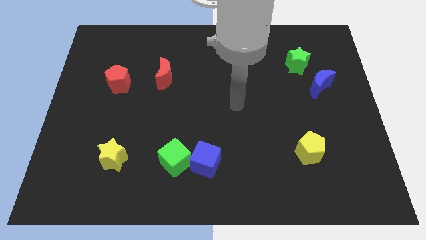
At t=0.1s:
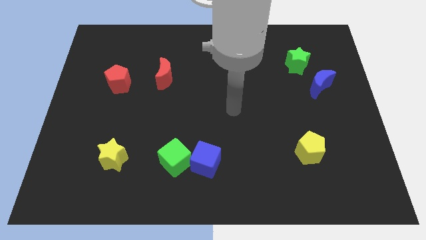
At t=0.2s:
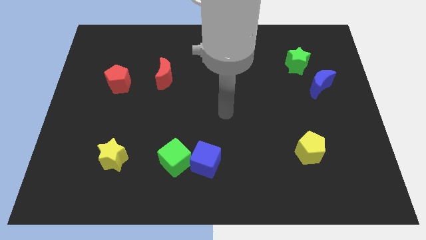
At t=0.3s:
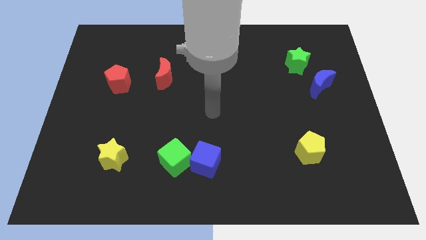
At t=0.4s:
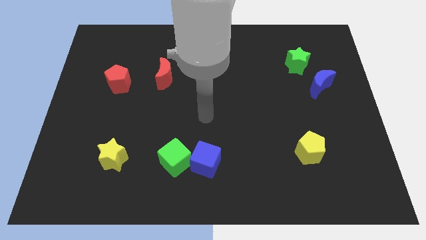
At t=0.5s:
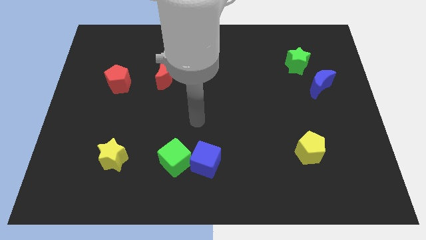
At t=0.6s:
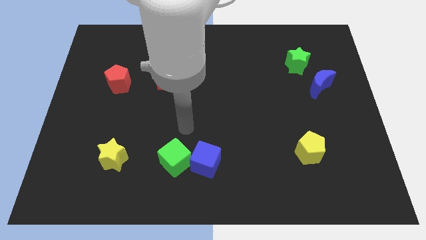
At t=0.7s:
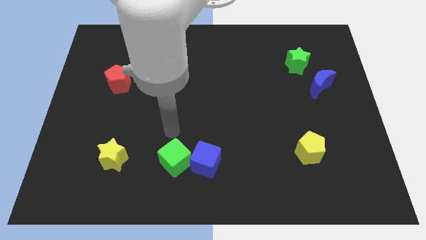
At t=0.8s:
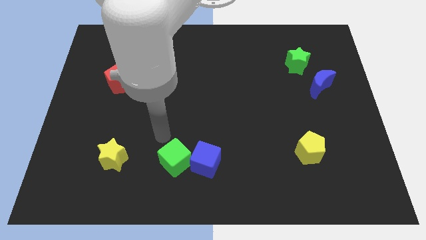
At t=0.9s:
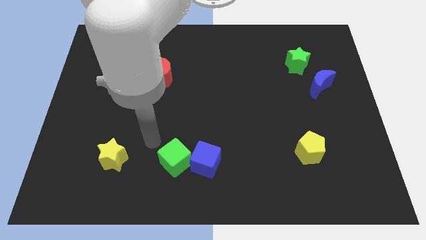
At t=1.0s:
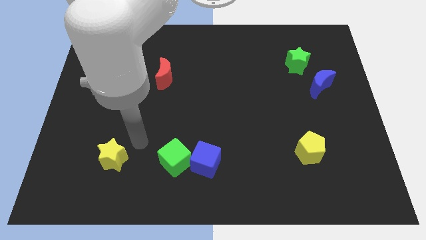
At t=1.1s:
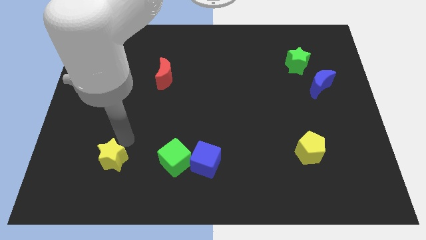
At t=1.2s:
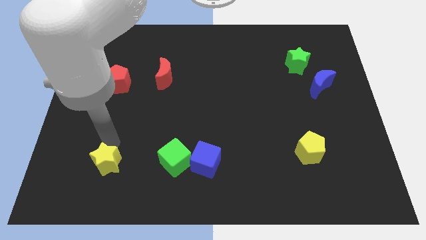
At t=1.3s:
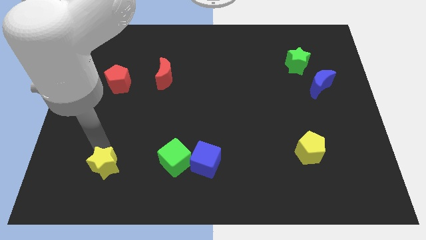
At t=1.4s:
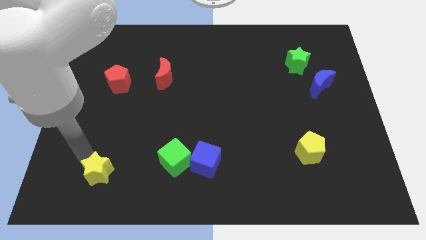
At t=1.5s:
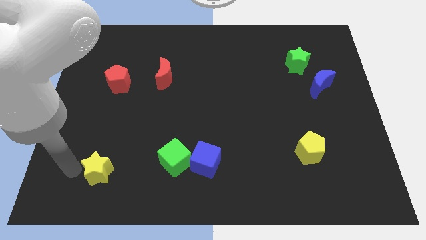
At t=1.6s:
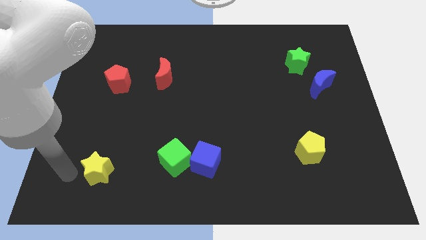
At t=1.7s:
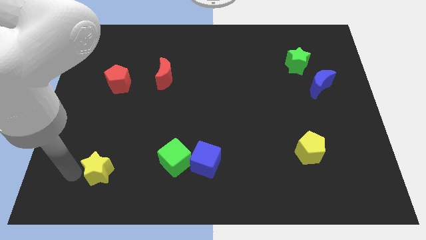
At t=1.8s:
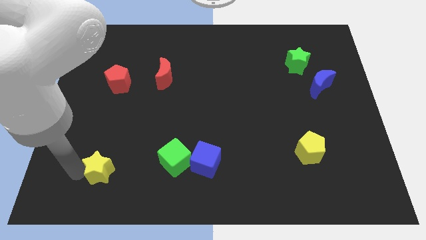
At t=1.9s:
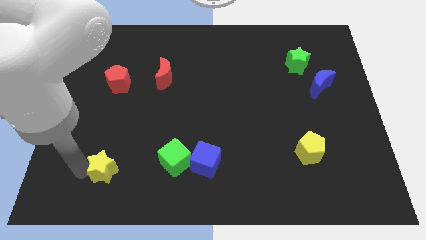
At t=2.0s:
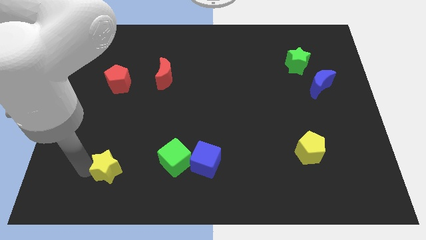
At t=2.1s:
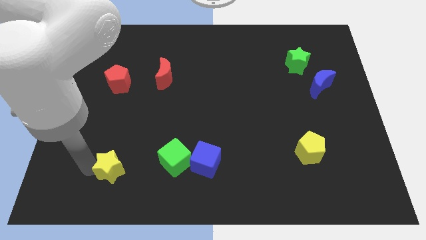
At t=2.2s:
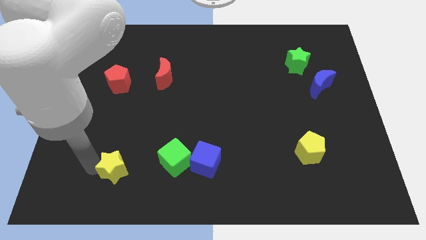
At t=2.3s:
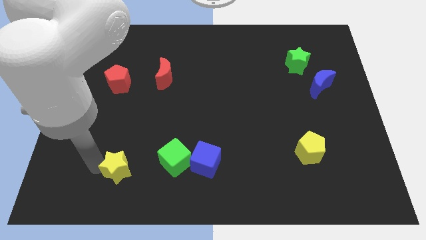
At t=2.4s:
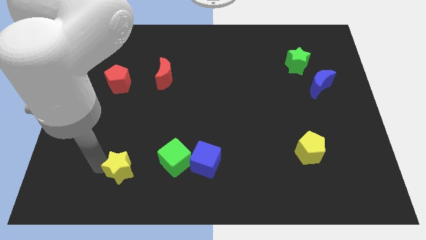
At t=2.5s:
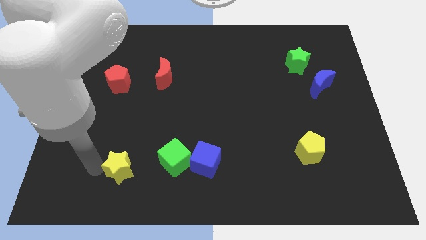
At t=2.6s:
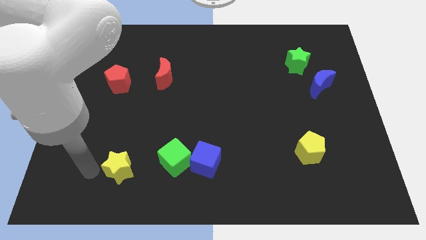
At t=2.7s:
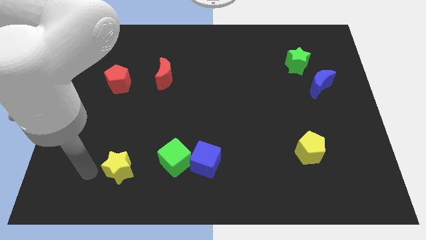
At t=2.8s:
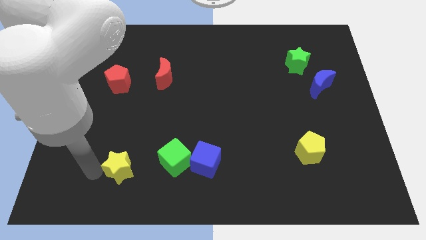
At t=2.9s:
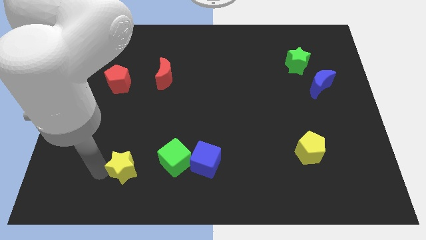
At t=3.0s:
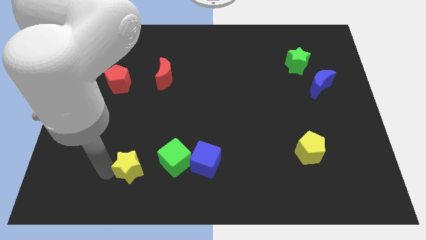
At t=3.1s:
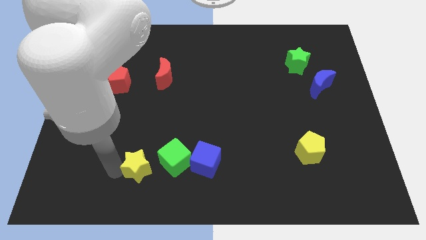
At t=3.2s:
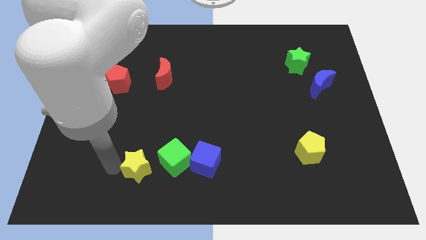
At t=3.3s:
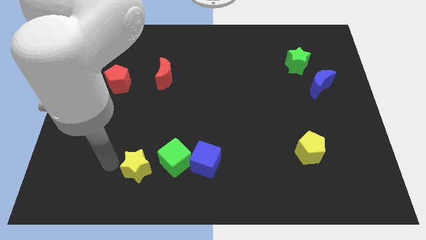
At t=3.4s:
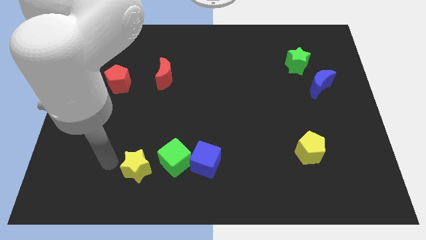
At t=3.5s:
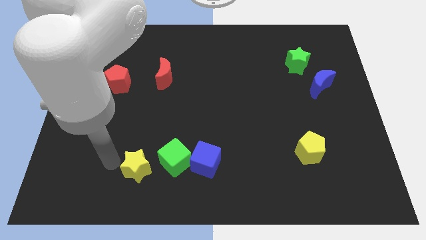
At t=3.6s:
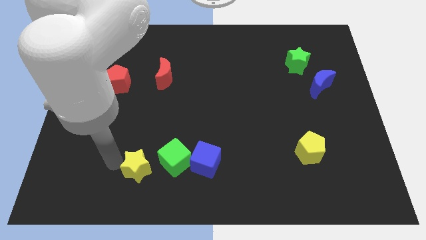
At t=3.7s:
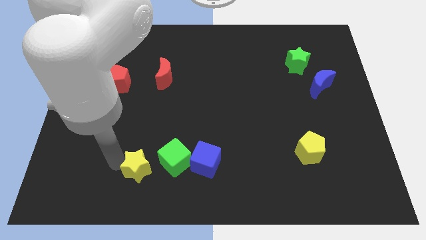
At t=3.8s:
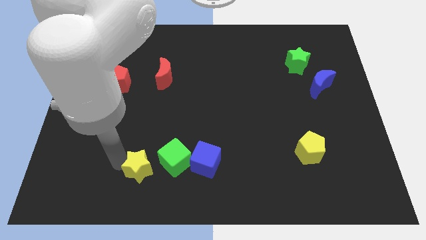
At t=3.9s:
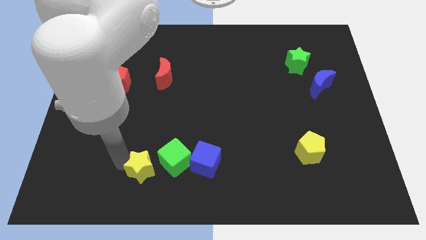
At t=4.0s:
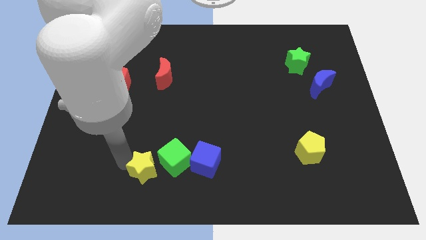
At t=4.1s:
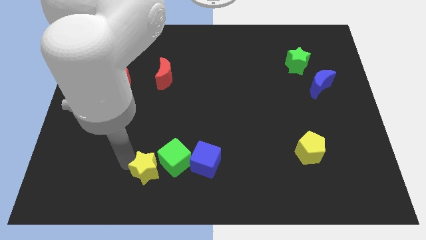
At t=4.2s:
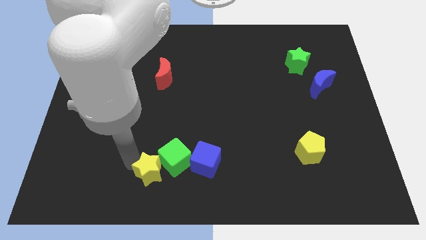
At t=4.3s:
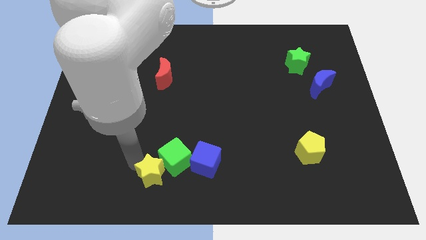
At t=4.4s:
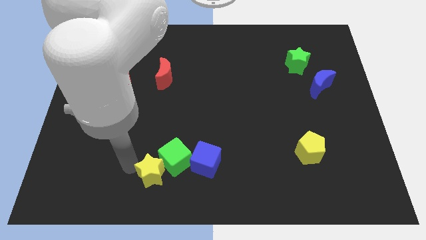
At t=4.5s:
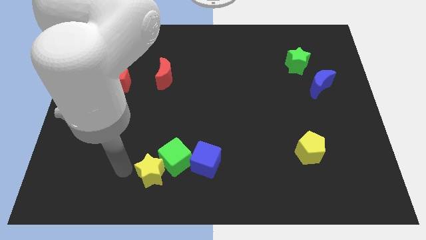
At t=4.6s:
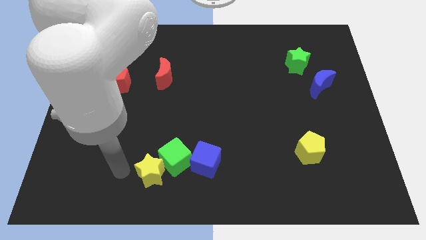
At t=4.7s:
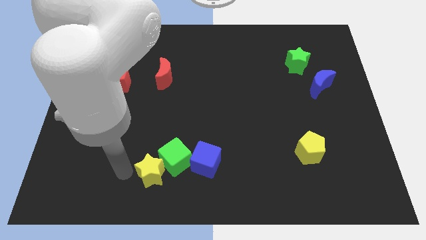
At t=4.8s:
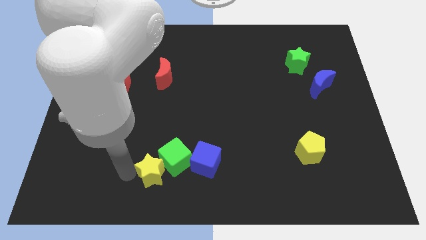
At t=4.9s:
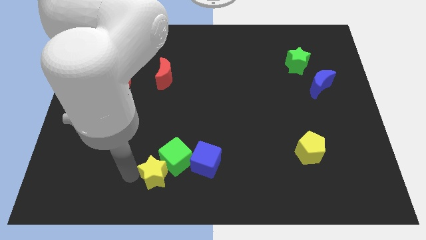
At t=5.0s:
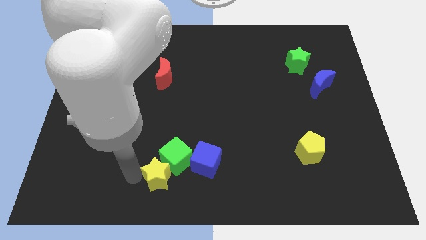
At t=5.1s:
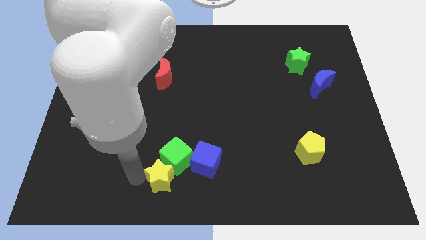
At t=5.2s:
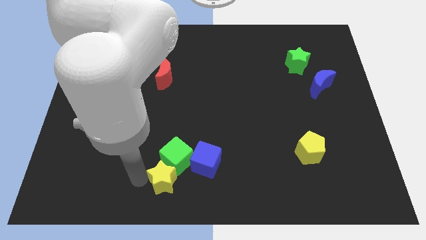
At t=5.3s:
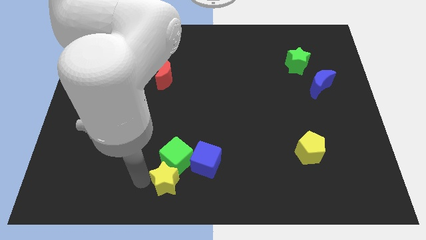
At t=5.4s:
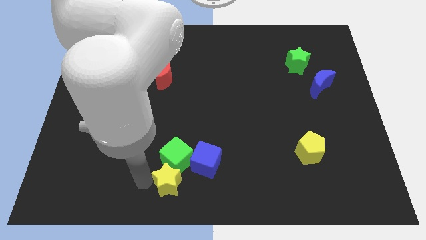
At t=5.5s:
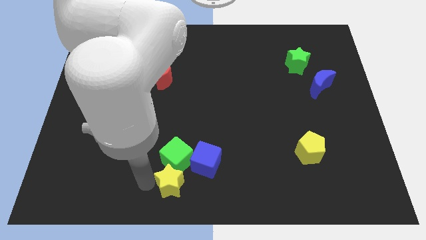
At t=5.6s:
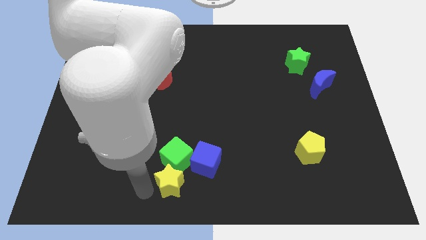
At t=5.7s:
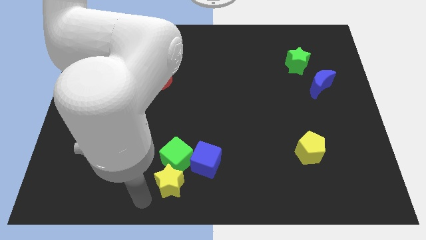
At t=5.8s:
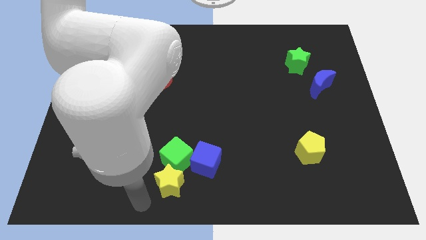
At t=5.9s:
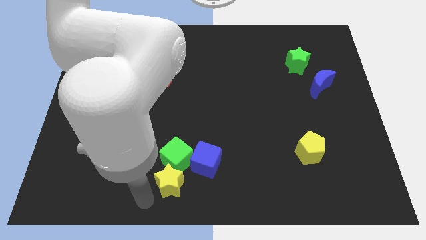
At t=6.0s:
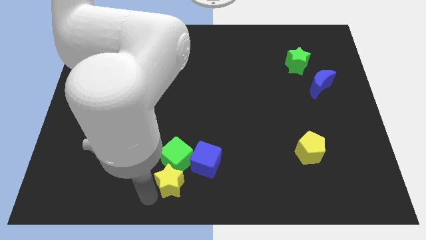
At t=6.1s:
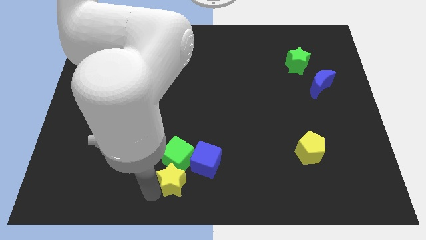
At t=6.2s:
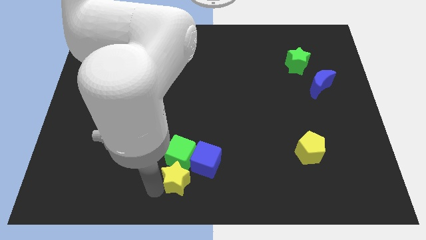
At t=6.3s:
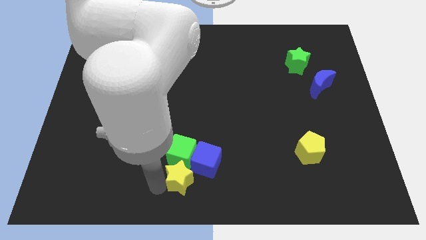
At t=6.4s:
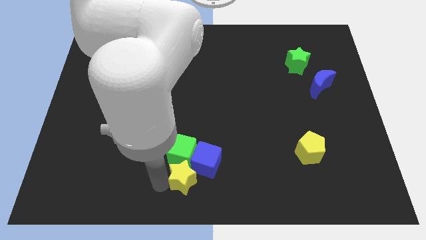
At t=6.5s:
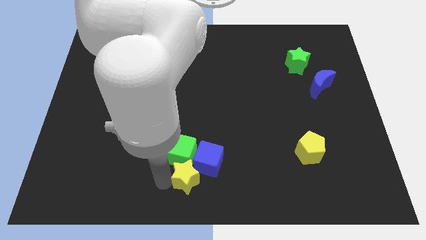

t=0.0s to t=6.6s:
put the yellow star to the blue cube
